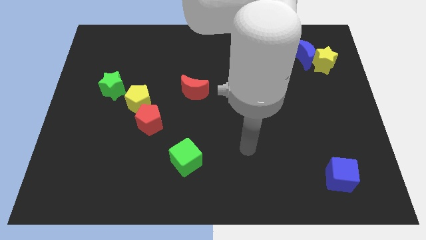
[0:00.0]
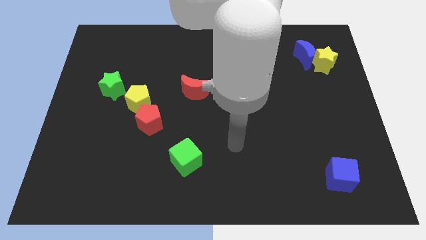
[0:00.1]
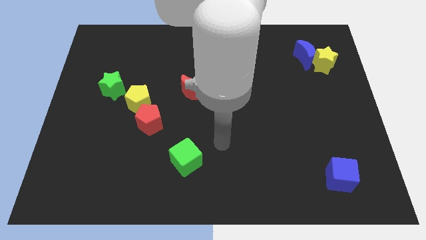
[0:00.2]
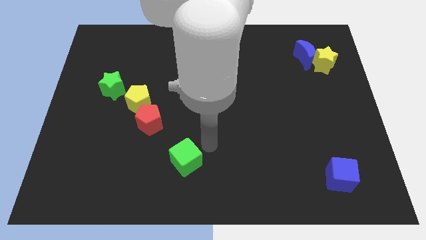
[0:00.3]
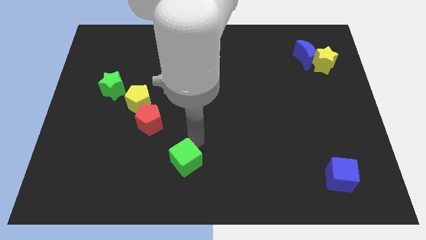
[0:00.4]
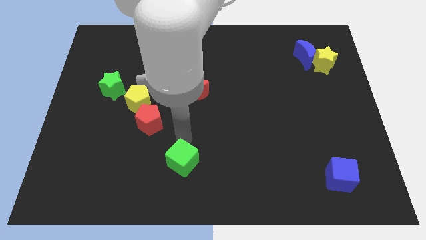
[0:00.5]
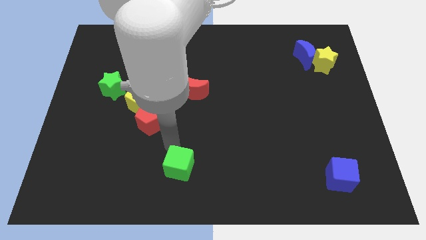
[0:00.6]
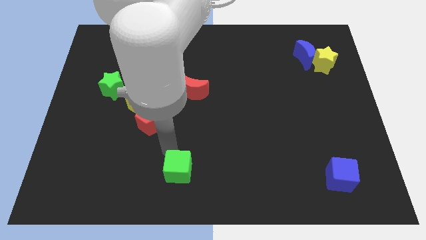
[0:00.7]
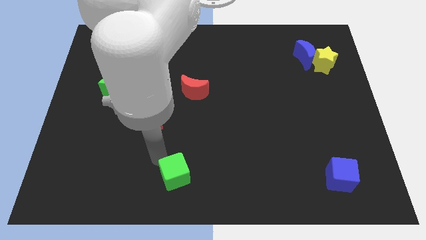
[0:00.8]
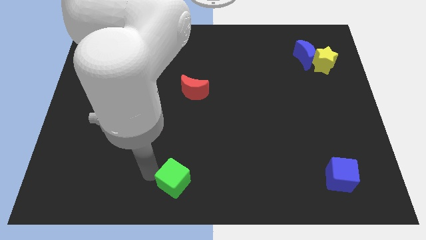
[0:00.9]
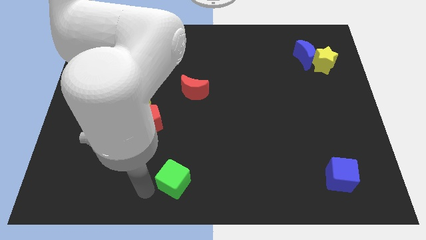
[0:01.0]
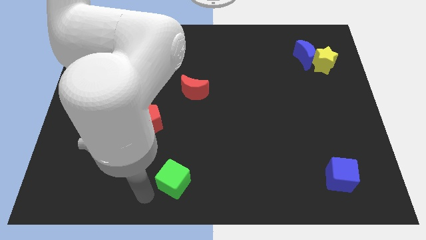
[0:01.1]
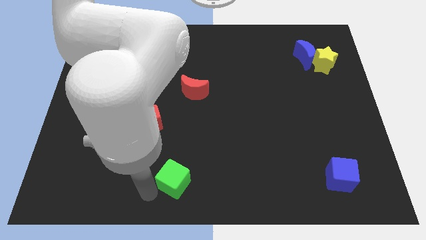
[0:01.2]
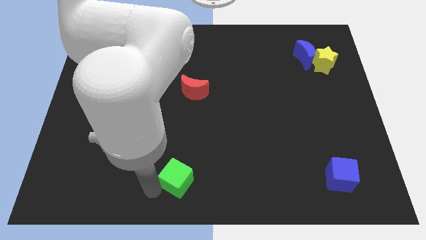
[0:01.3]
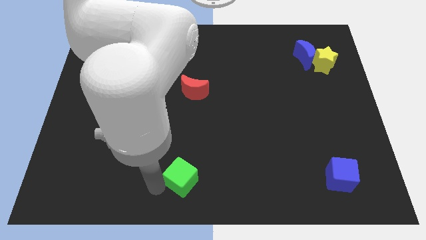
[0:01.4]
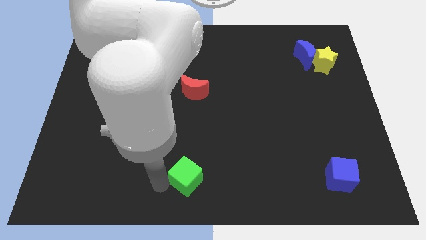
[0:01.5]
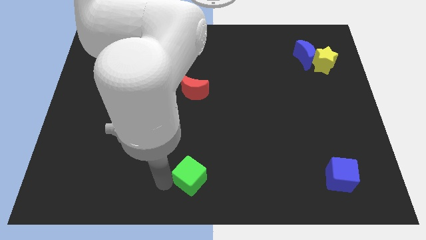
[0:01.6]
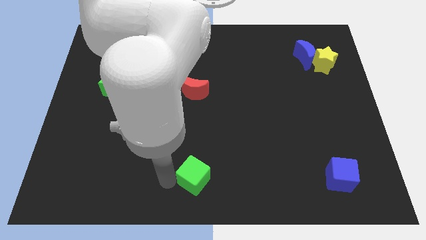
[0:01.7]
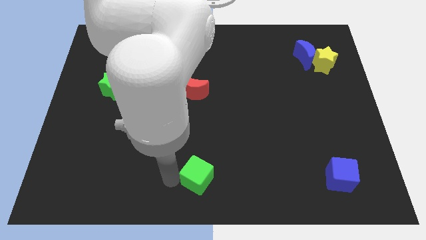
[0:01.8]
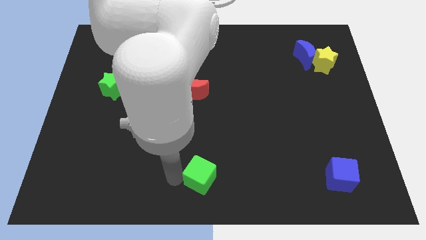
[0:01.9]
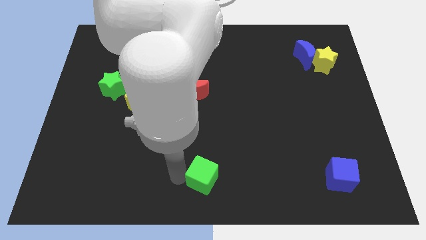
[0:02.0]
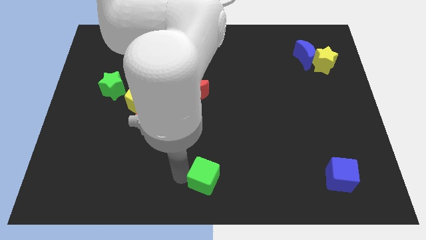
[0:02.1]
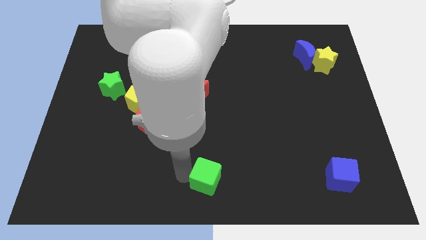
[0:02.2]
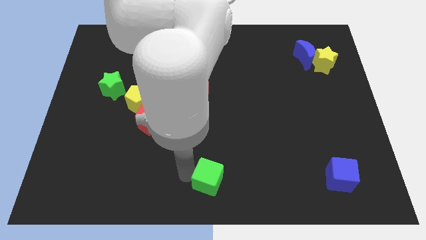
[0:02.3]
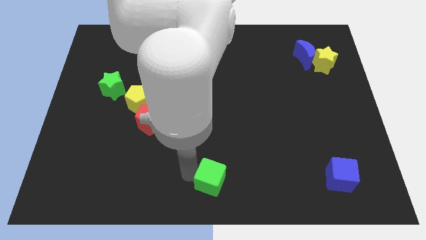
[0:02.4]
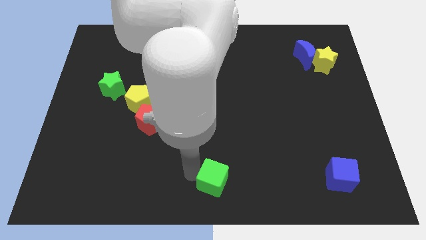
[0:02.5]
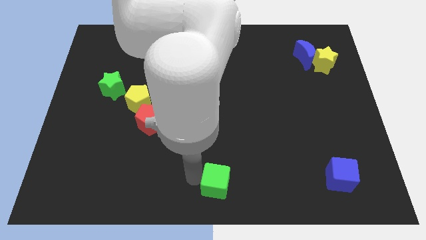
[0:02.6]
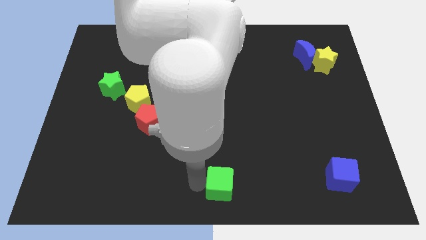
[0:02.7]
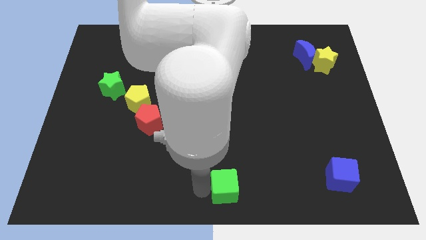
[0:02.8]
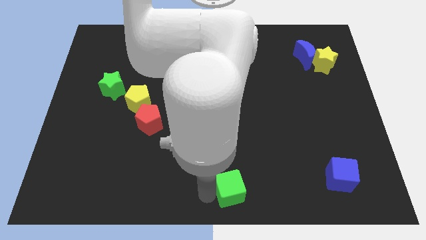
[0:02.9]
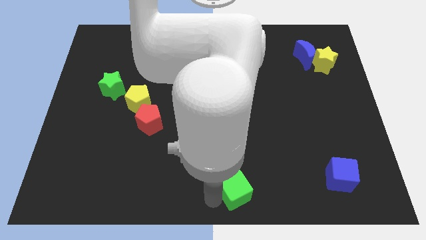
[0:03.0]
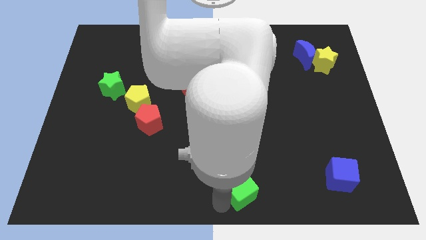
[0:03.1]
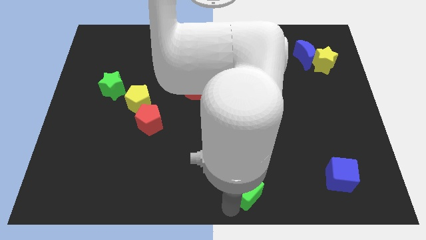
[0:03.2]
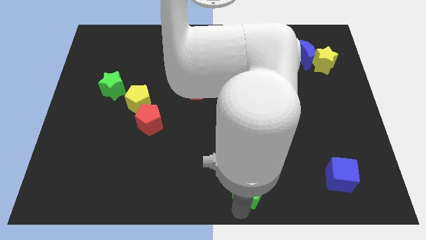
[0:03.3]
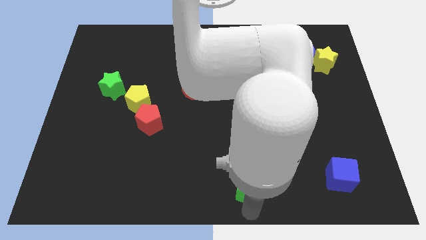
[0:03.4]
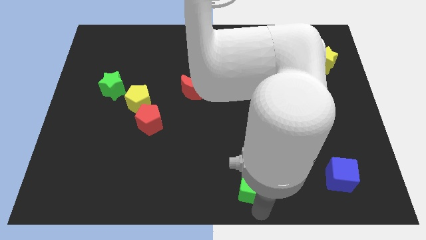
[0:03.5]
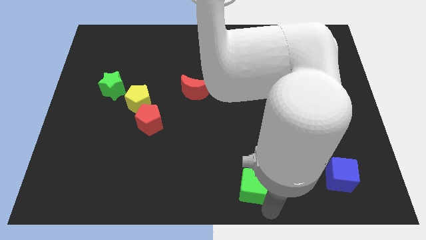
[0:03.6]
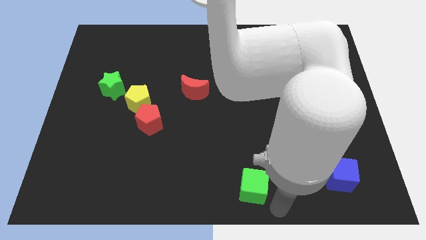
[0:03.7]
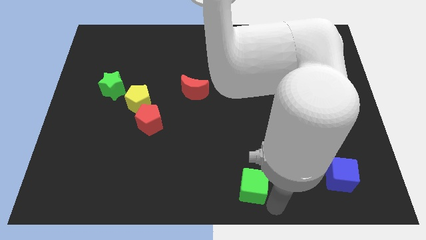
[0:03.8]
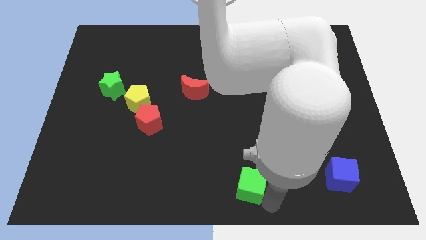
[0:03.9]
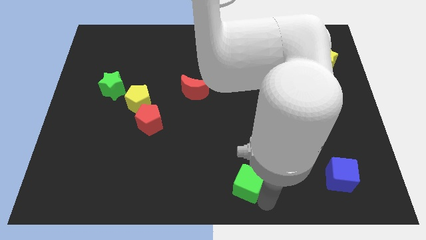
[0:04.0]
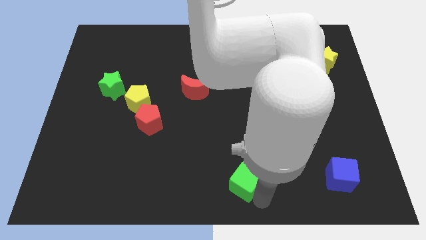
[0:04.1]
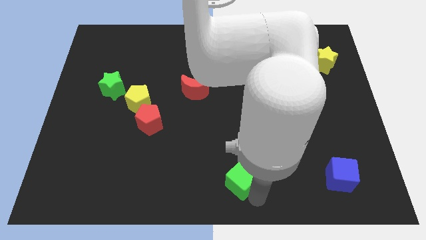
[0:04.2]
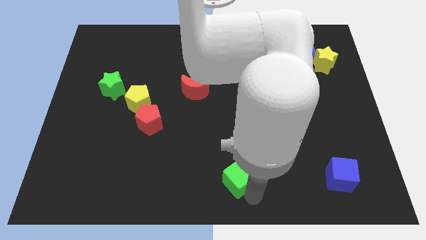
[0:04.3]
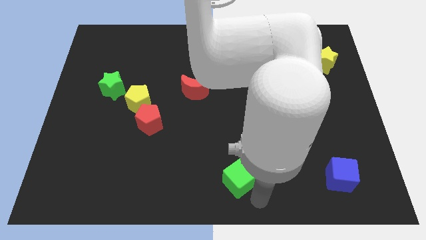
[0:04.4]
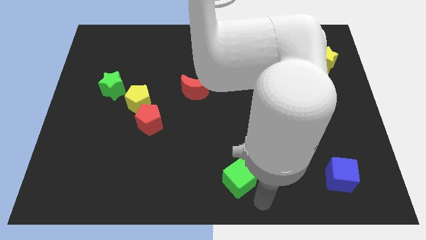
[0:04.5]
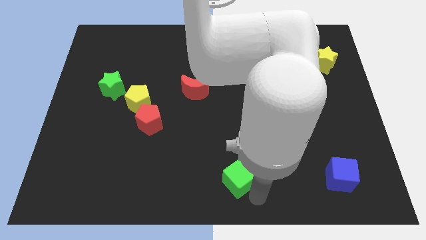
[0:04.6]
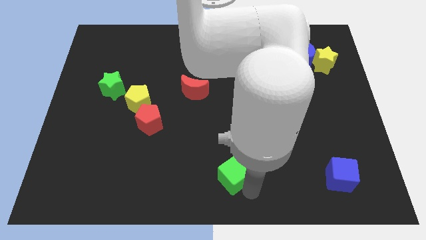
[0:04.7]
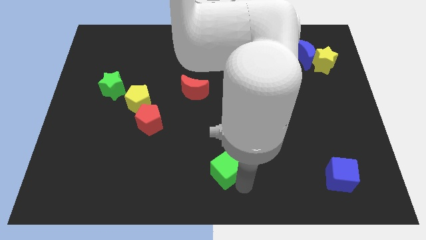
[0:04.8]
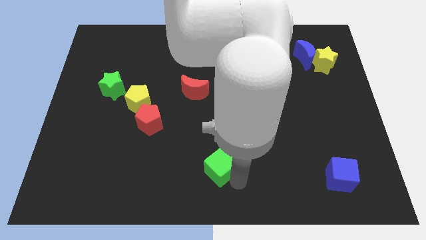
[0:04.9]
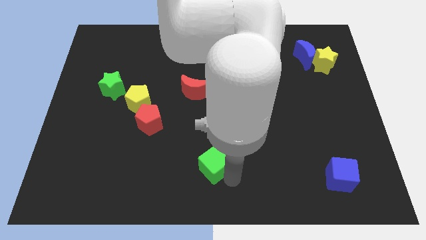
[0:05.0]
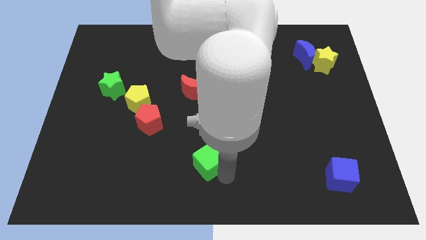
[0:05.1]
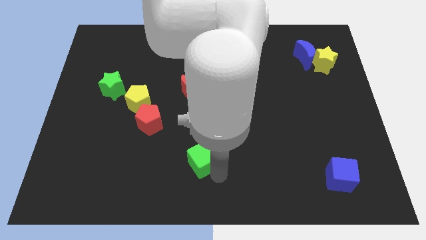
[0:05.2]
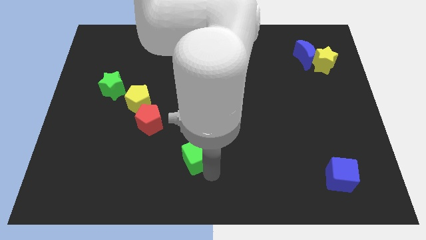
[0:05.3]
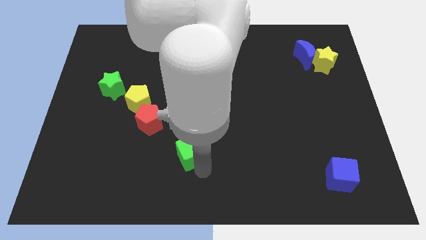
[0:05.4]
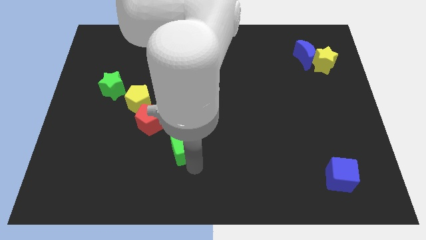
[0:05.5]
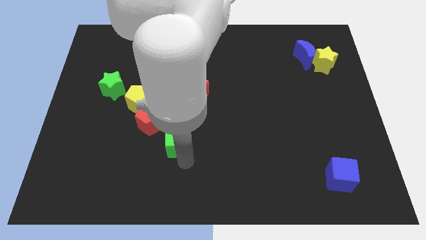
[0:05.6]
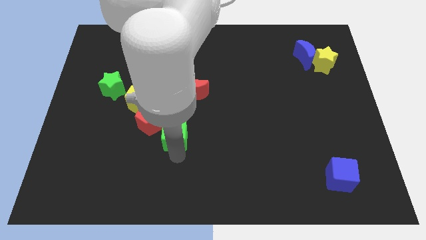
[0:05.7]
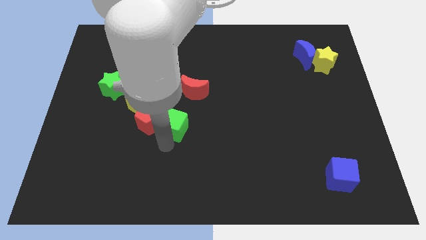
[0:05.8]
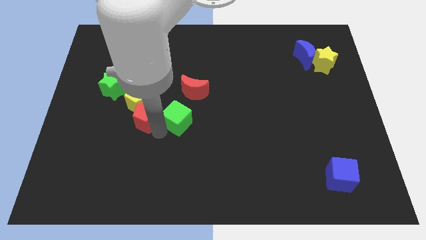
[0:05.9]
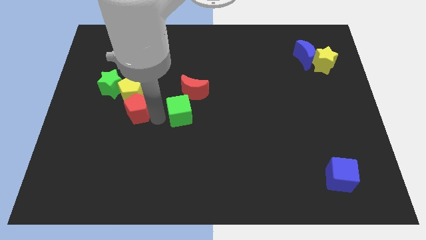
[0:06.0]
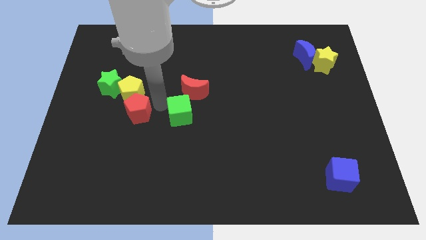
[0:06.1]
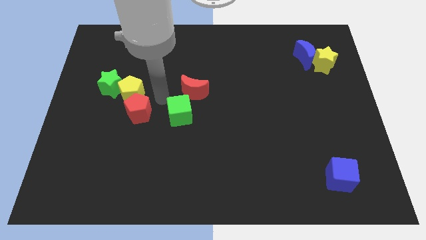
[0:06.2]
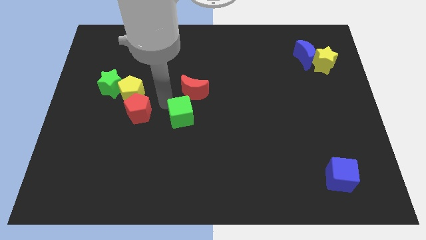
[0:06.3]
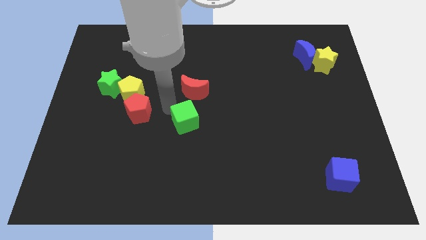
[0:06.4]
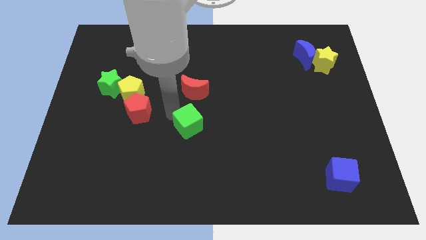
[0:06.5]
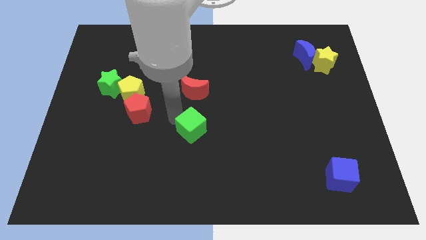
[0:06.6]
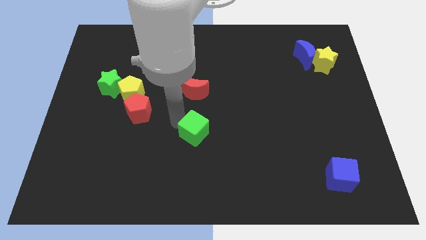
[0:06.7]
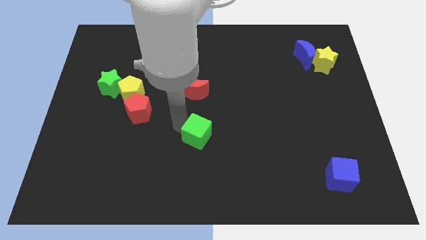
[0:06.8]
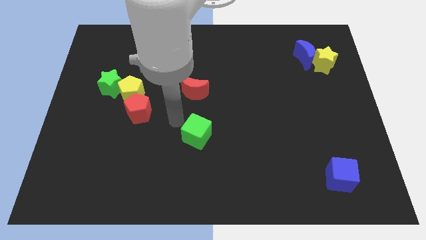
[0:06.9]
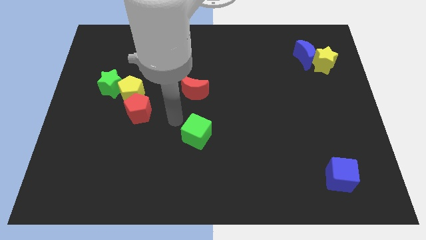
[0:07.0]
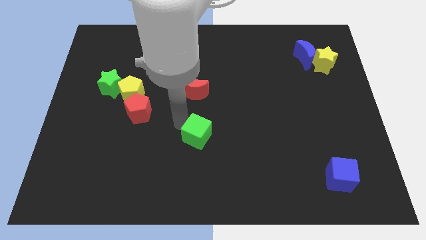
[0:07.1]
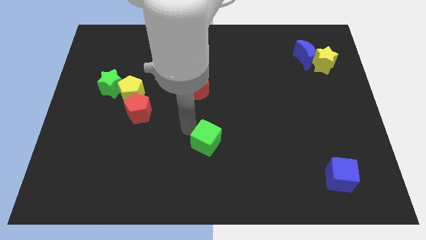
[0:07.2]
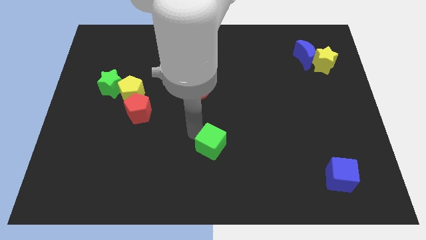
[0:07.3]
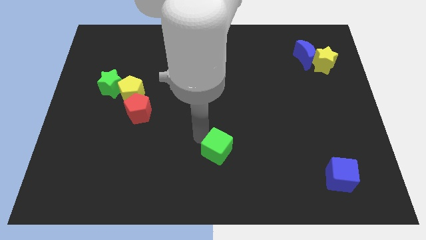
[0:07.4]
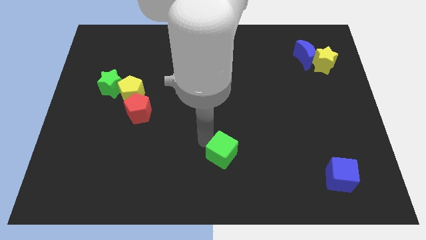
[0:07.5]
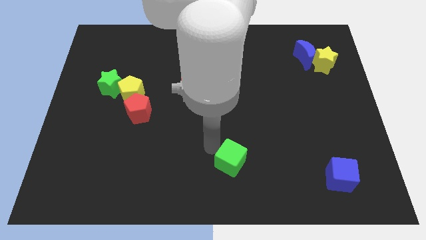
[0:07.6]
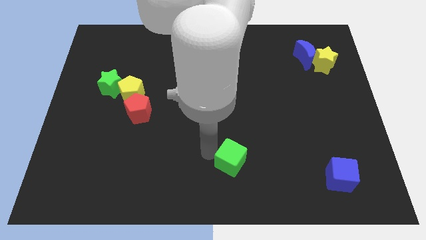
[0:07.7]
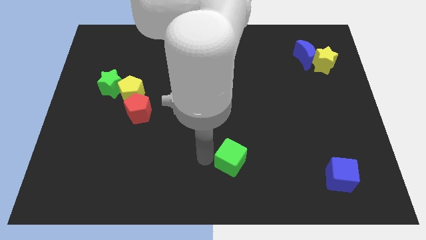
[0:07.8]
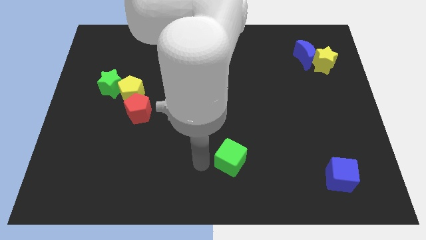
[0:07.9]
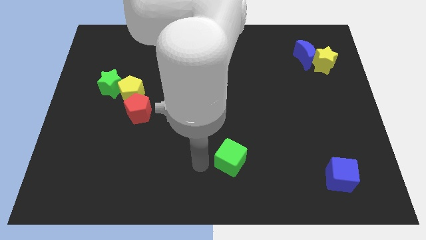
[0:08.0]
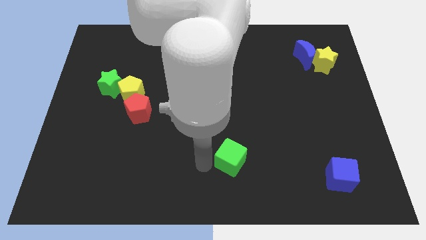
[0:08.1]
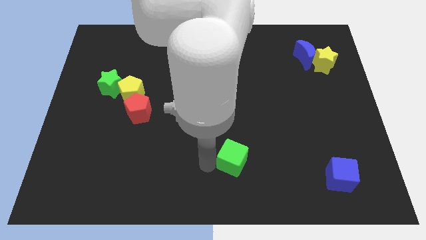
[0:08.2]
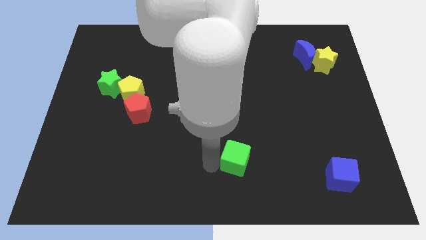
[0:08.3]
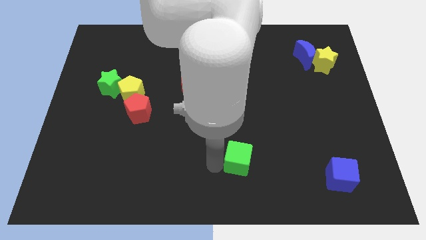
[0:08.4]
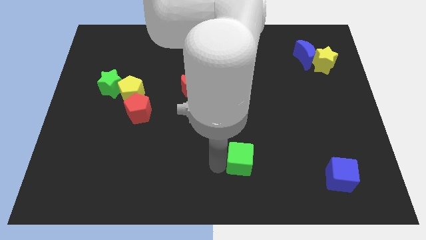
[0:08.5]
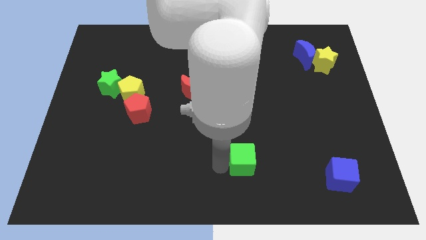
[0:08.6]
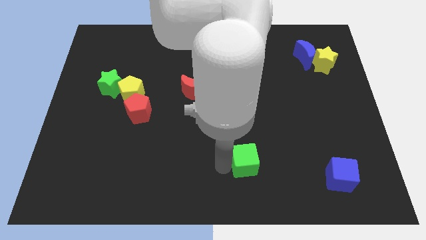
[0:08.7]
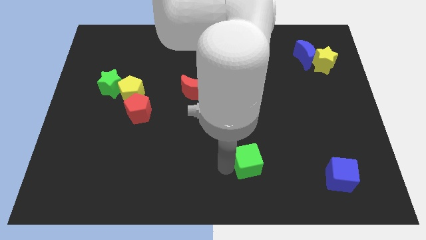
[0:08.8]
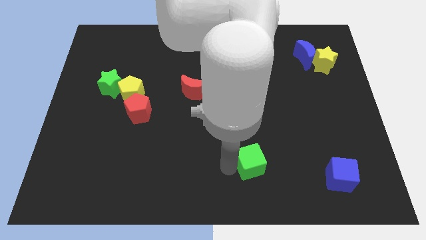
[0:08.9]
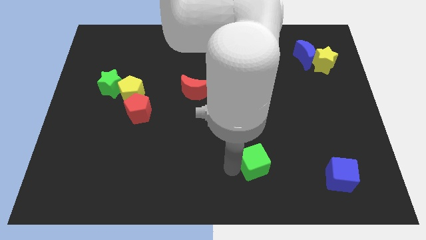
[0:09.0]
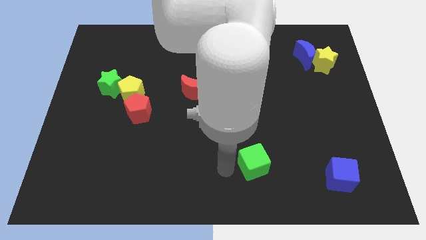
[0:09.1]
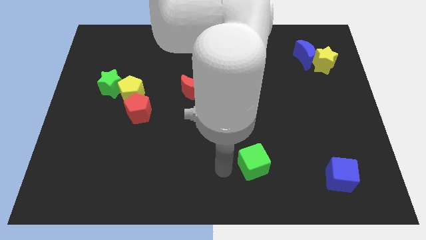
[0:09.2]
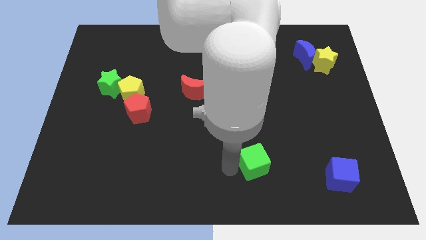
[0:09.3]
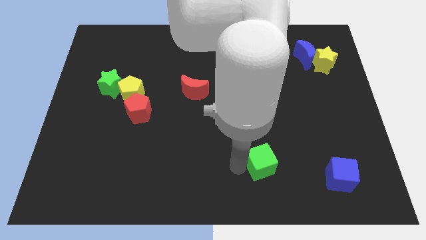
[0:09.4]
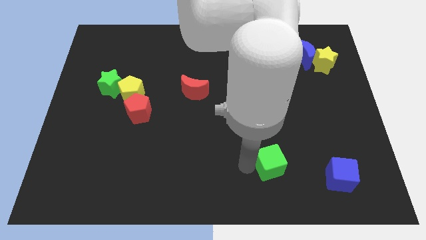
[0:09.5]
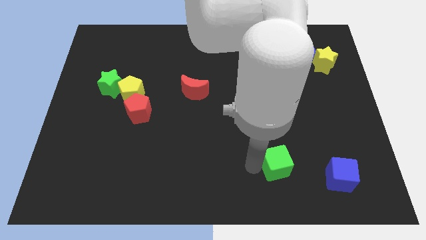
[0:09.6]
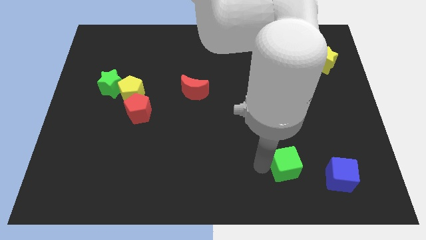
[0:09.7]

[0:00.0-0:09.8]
push the green cube right
